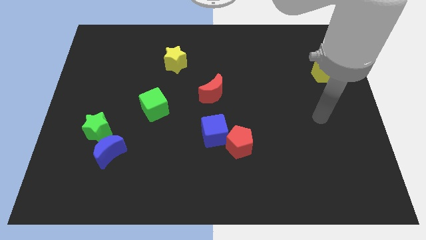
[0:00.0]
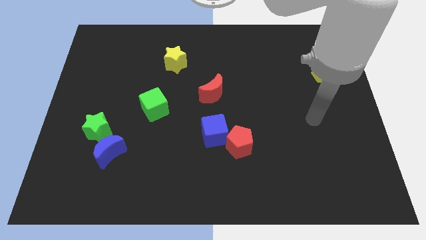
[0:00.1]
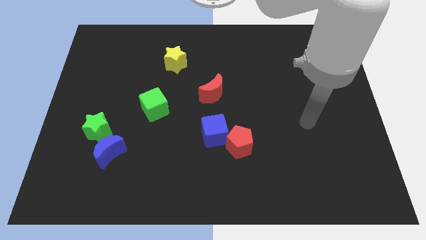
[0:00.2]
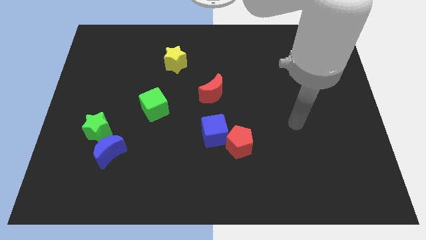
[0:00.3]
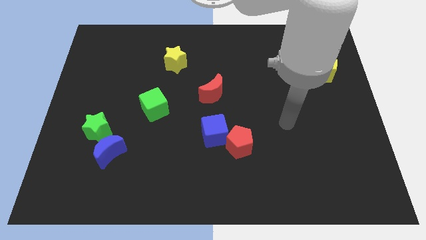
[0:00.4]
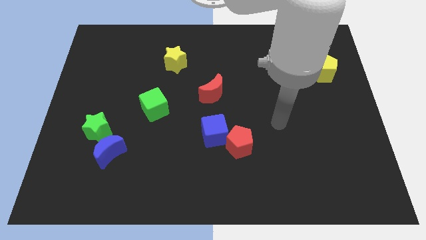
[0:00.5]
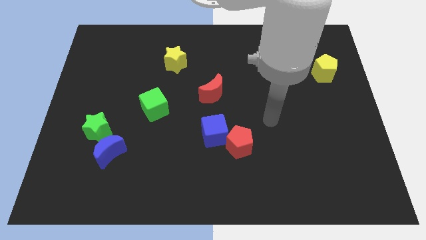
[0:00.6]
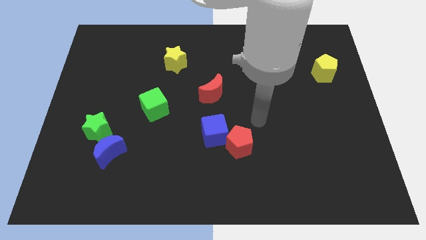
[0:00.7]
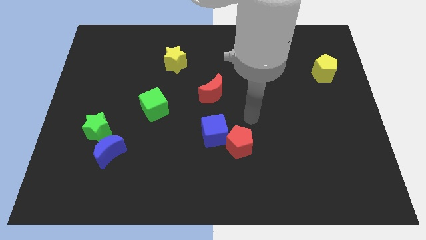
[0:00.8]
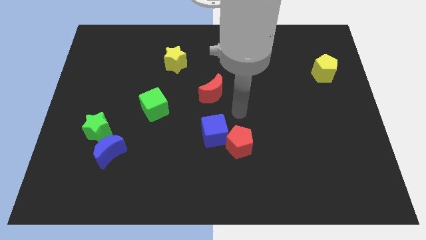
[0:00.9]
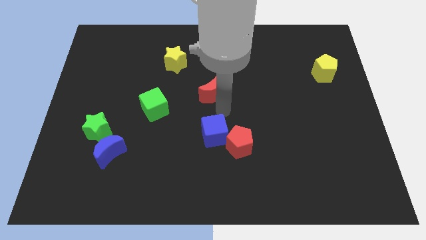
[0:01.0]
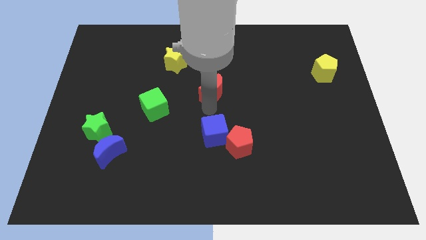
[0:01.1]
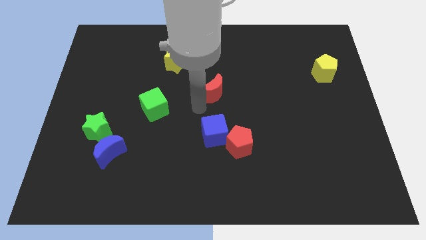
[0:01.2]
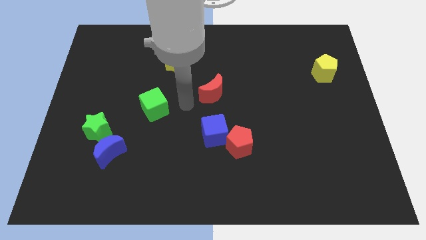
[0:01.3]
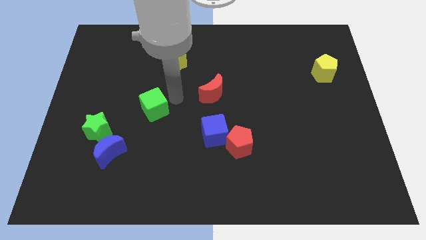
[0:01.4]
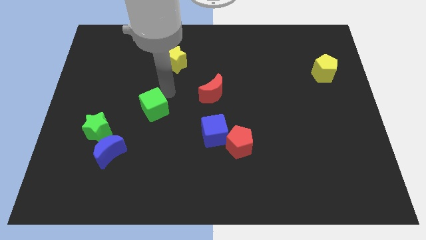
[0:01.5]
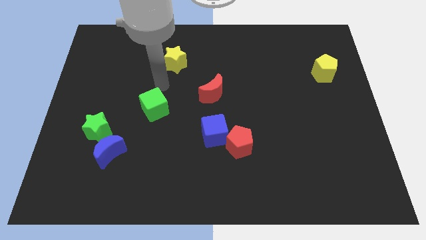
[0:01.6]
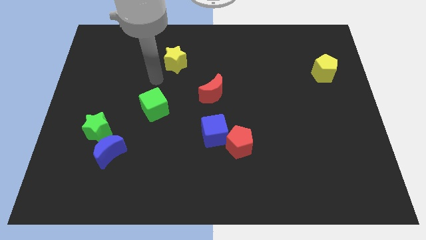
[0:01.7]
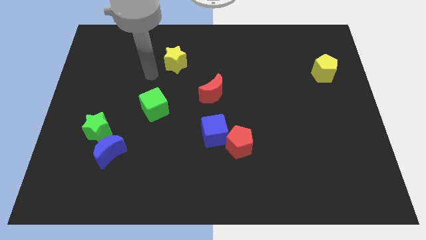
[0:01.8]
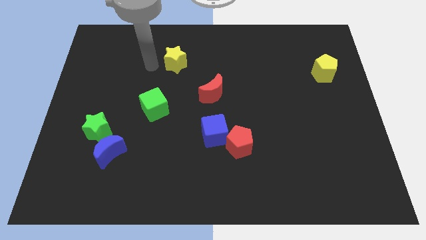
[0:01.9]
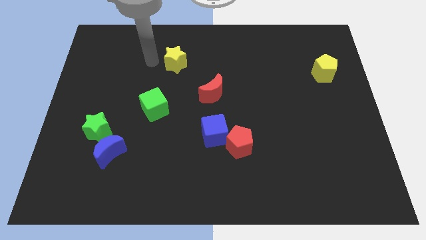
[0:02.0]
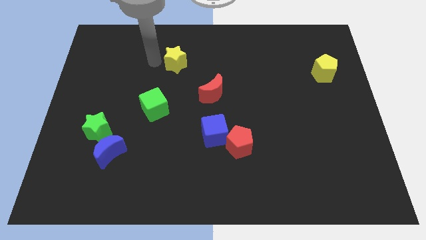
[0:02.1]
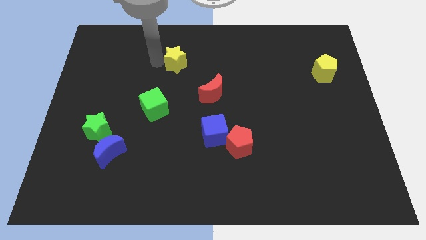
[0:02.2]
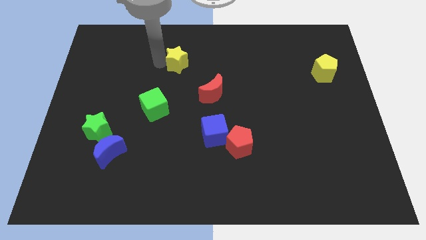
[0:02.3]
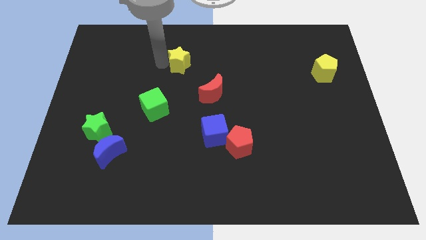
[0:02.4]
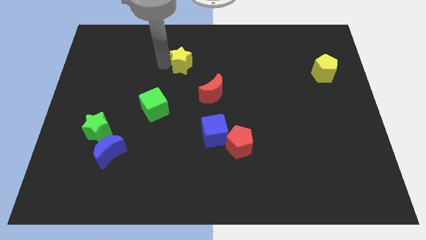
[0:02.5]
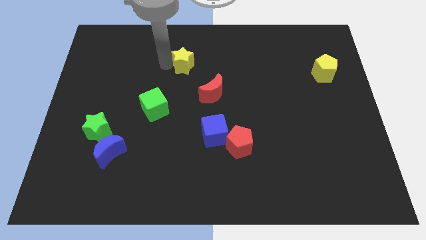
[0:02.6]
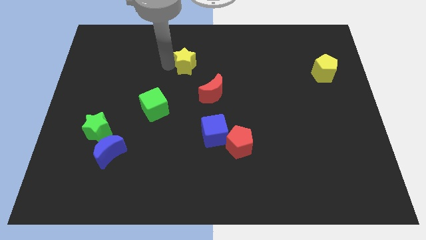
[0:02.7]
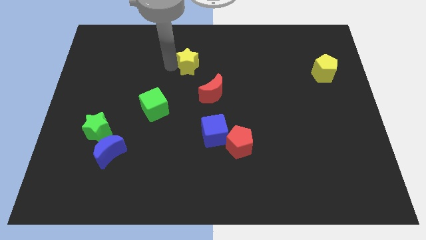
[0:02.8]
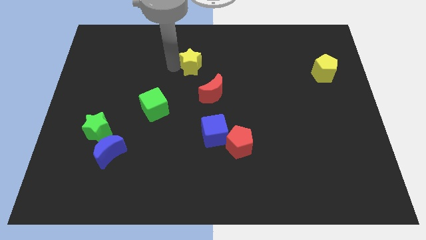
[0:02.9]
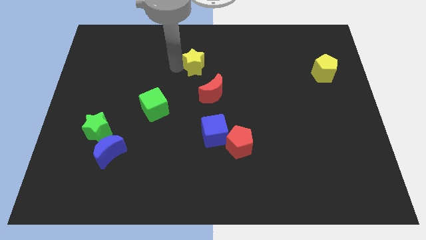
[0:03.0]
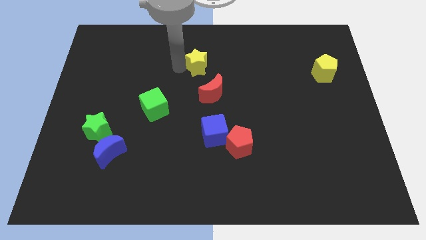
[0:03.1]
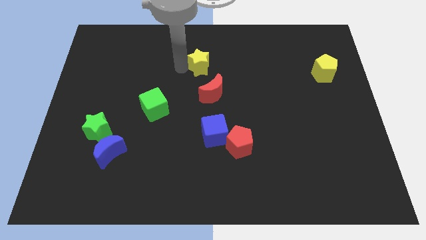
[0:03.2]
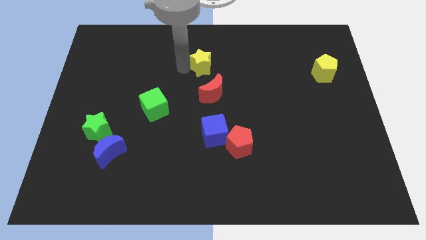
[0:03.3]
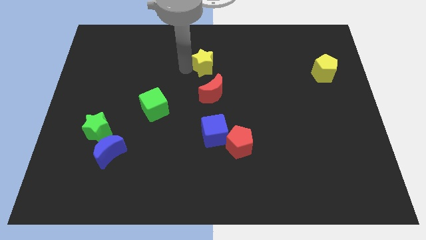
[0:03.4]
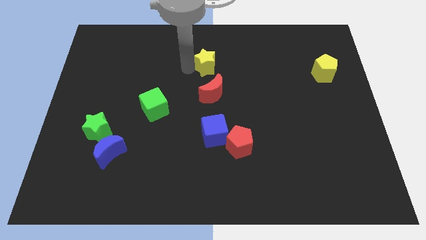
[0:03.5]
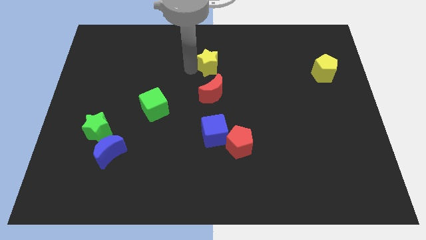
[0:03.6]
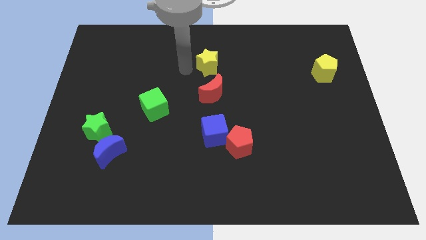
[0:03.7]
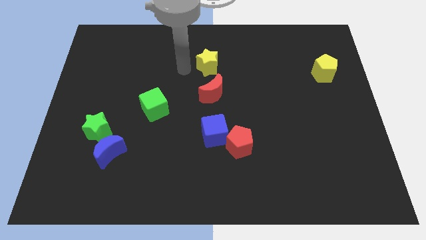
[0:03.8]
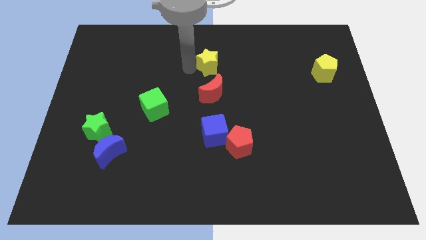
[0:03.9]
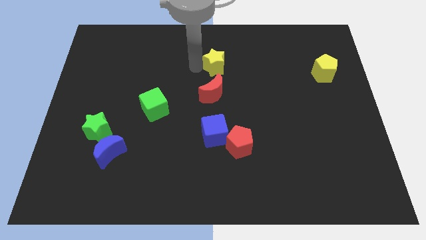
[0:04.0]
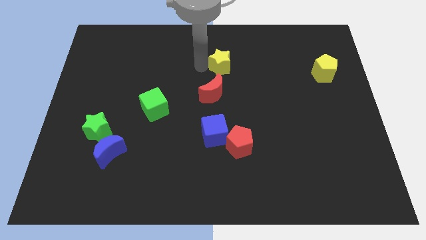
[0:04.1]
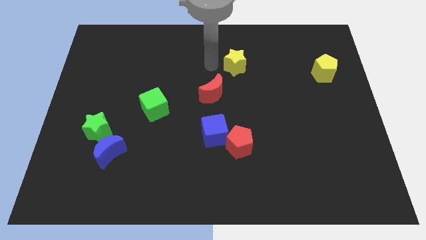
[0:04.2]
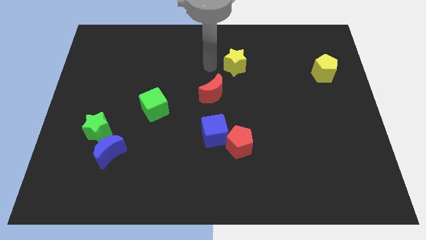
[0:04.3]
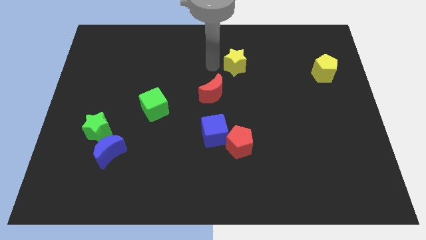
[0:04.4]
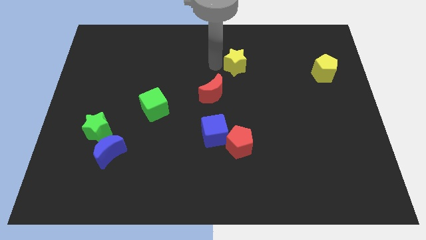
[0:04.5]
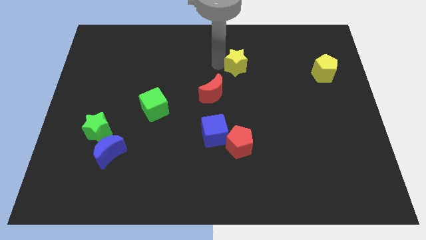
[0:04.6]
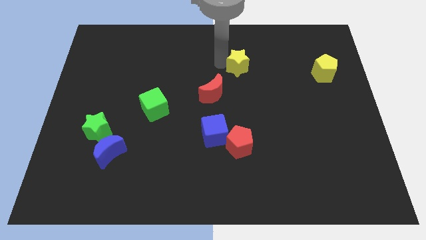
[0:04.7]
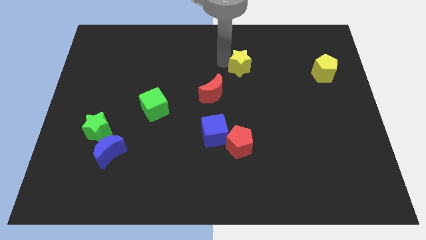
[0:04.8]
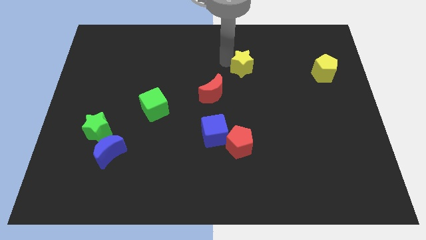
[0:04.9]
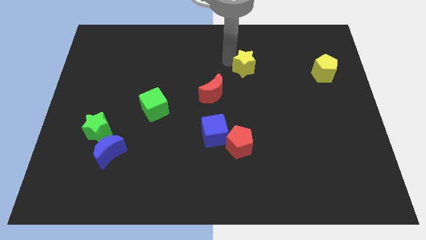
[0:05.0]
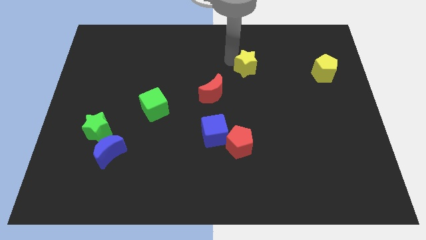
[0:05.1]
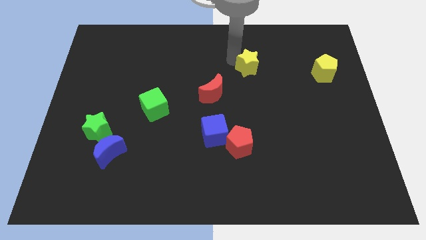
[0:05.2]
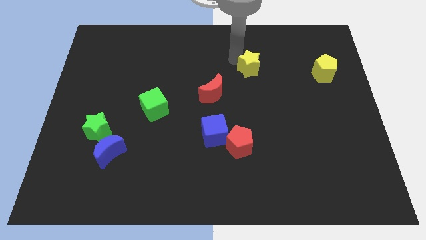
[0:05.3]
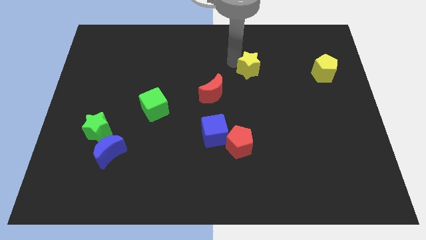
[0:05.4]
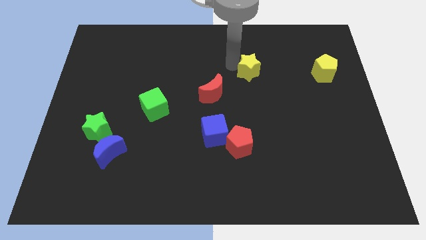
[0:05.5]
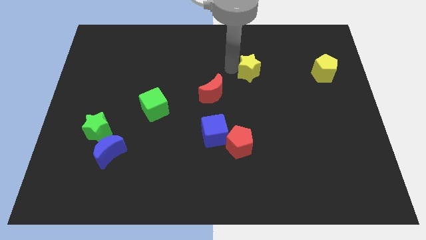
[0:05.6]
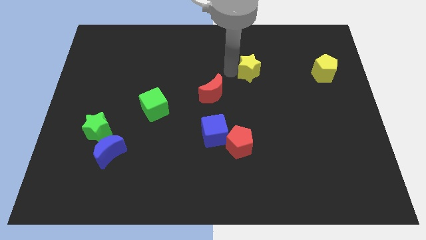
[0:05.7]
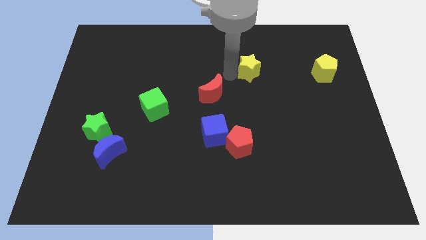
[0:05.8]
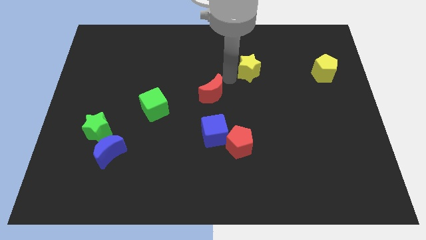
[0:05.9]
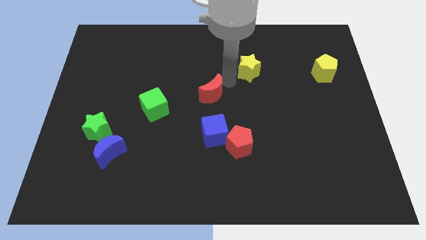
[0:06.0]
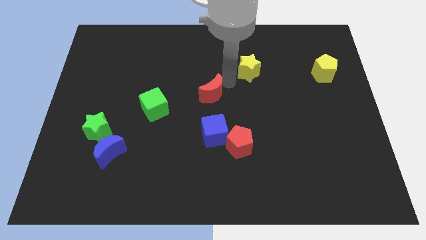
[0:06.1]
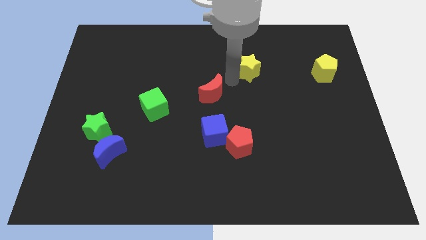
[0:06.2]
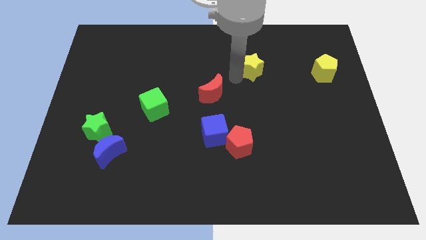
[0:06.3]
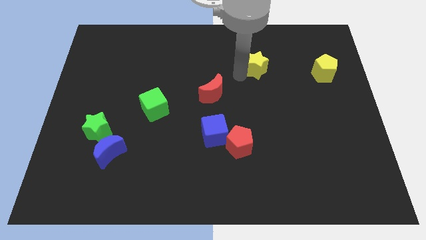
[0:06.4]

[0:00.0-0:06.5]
move the yellow star to the right

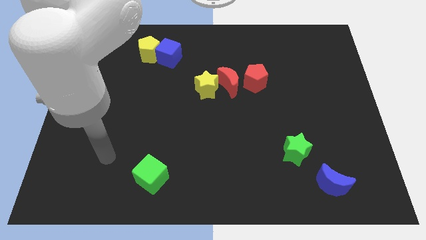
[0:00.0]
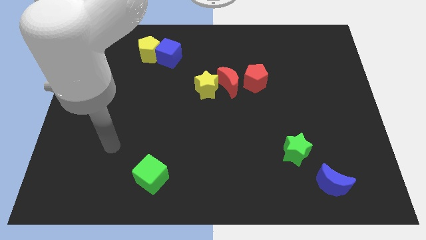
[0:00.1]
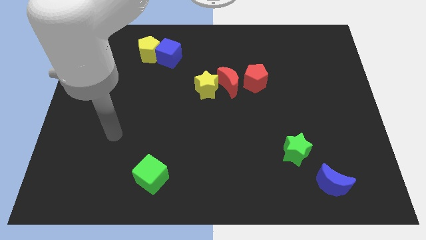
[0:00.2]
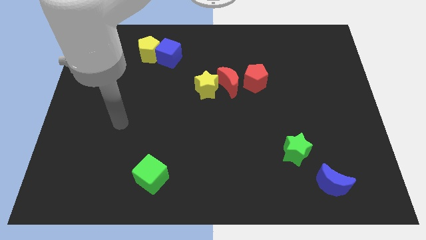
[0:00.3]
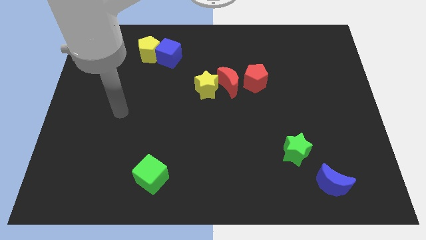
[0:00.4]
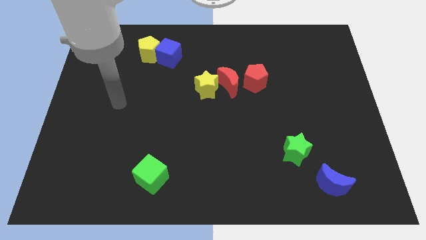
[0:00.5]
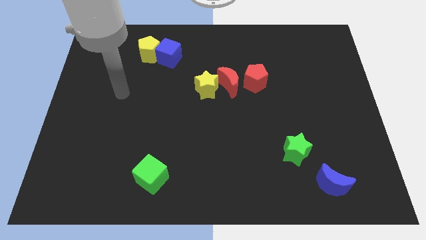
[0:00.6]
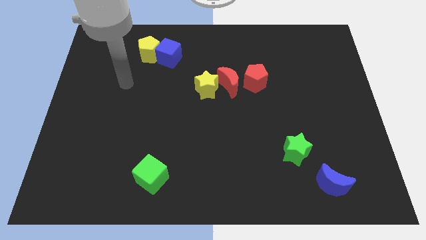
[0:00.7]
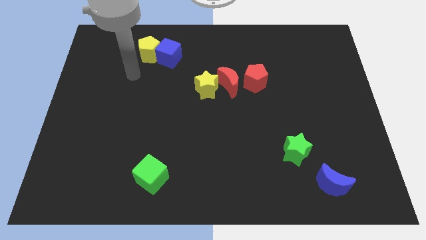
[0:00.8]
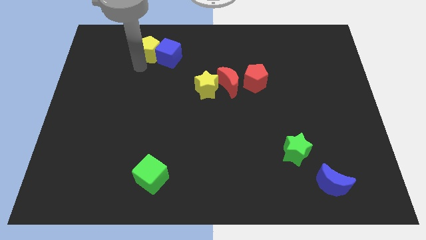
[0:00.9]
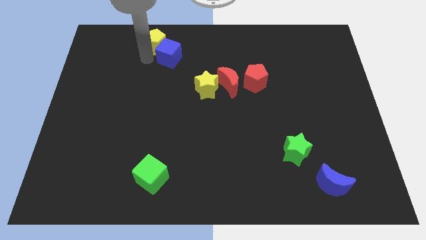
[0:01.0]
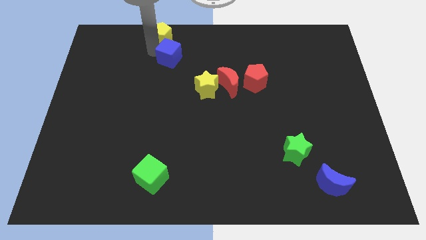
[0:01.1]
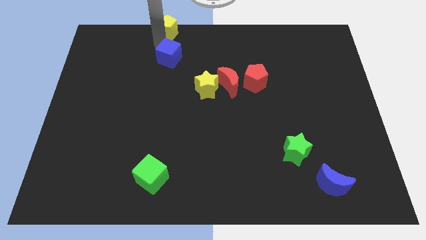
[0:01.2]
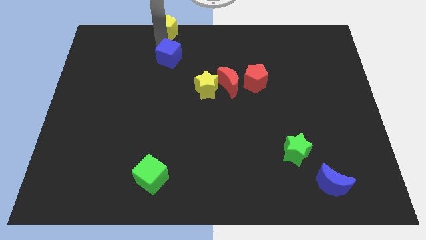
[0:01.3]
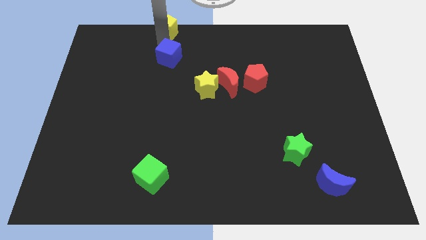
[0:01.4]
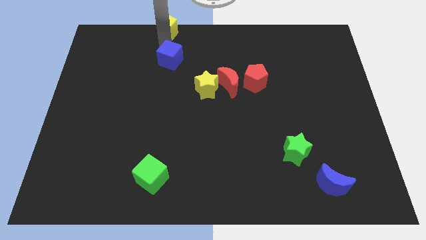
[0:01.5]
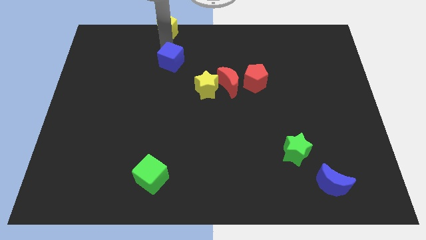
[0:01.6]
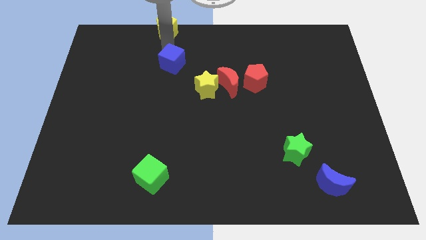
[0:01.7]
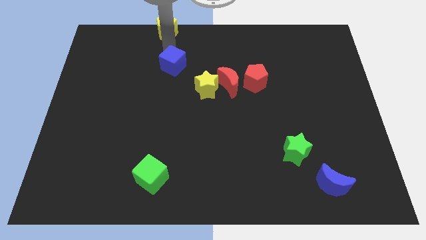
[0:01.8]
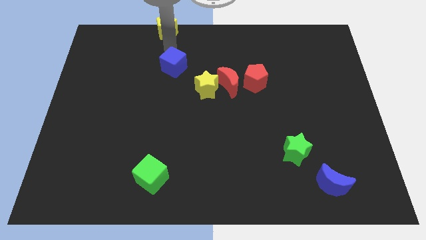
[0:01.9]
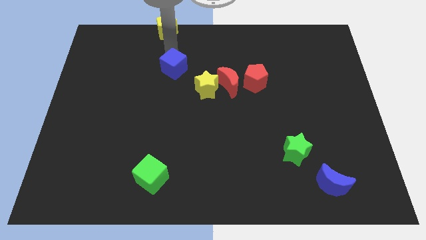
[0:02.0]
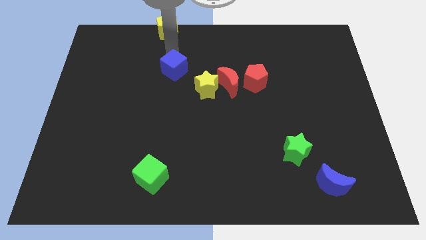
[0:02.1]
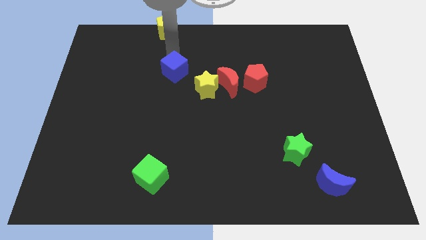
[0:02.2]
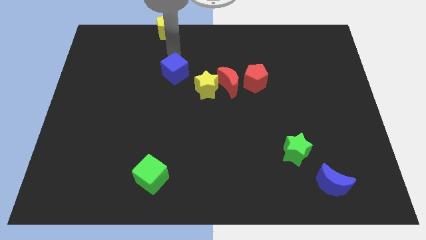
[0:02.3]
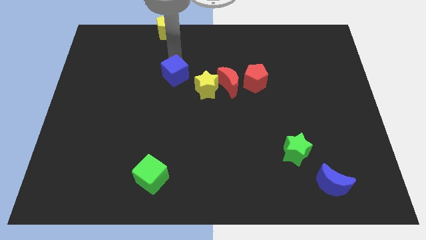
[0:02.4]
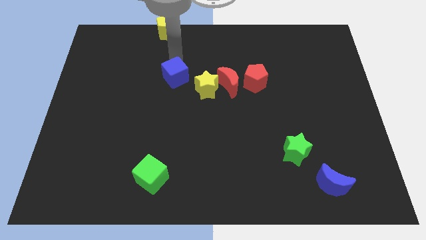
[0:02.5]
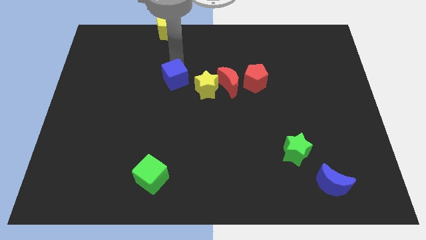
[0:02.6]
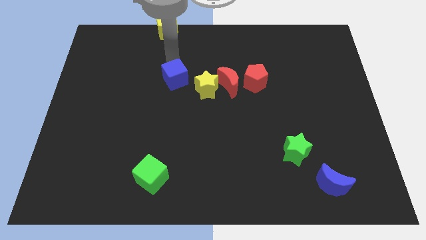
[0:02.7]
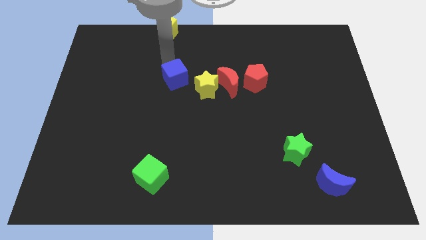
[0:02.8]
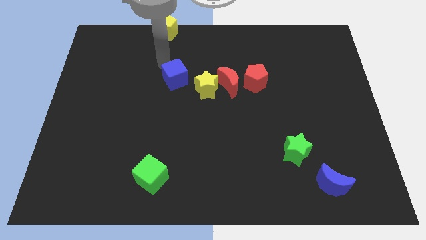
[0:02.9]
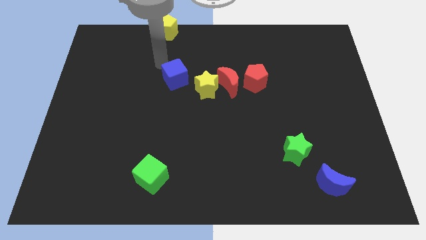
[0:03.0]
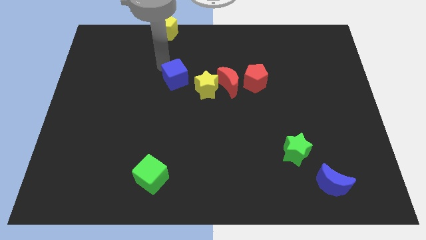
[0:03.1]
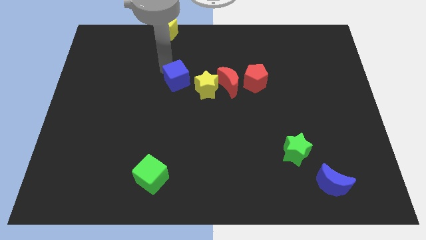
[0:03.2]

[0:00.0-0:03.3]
push the blue cube a little bit diagonally downwards and to the right
